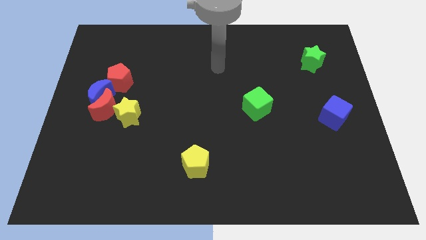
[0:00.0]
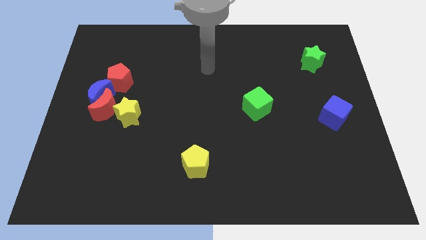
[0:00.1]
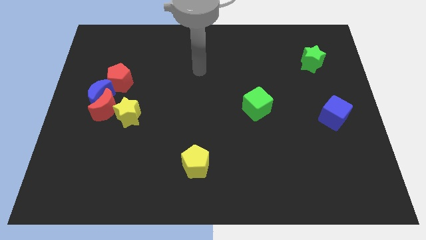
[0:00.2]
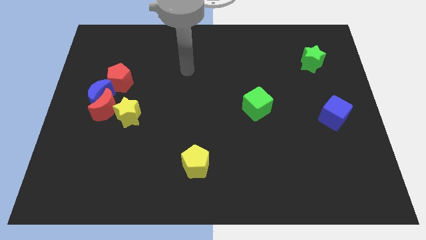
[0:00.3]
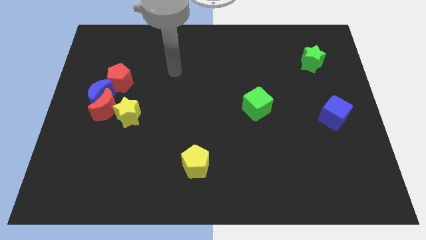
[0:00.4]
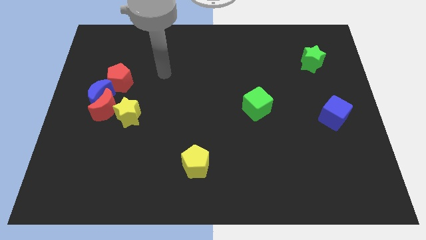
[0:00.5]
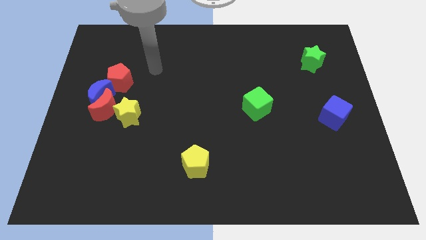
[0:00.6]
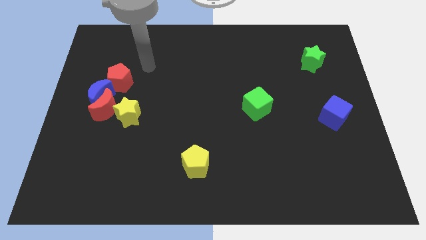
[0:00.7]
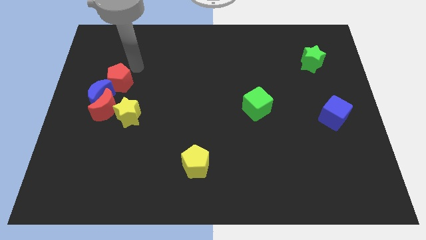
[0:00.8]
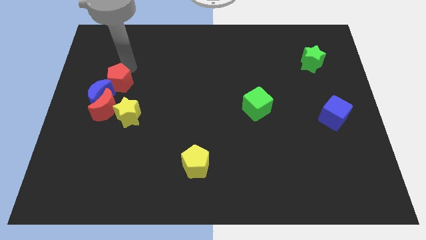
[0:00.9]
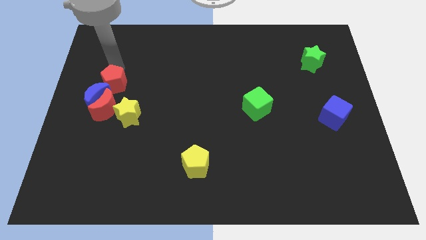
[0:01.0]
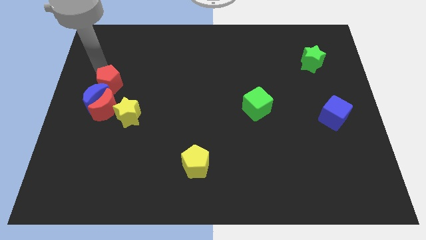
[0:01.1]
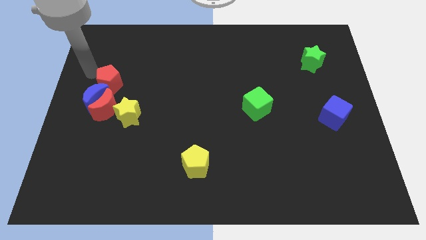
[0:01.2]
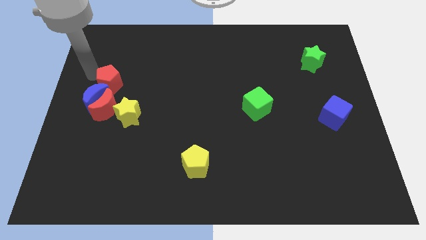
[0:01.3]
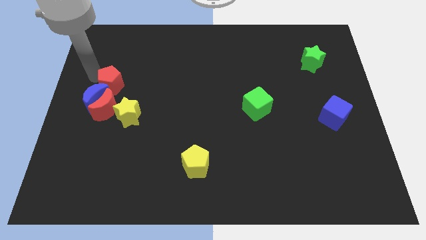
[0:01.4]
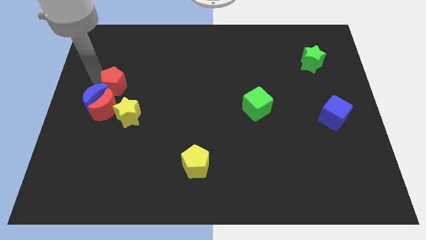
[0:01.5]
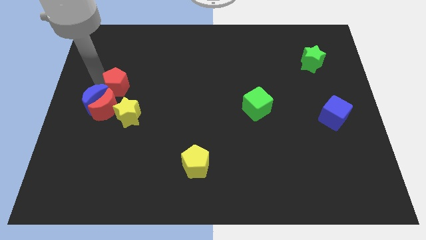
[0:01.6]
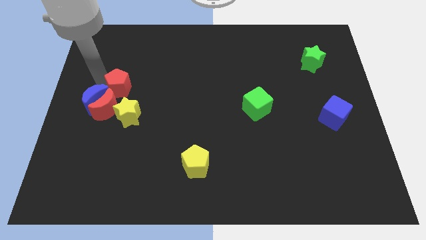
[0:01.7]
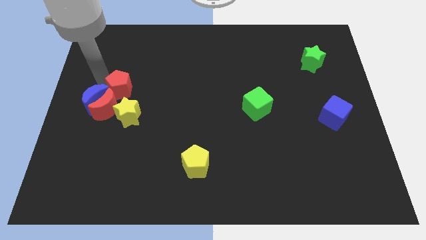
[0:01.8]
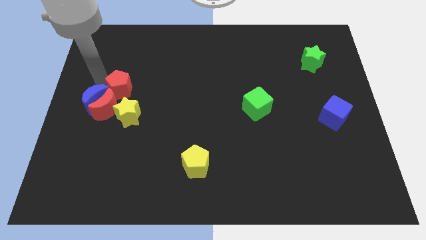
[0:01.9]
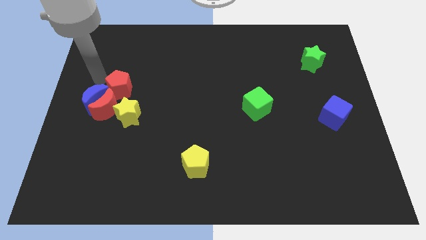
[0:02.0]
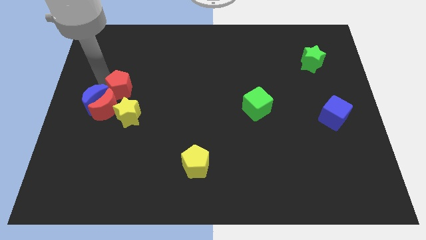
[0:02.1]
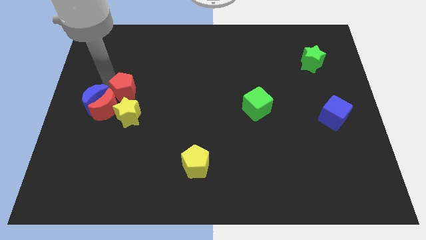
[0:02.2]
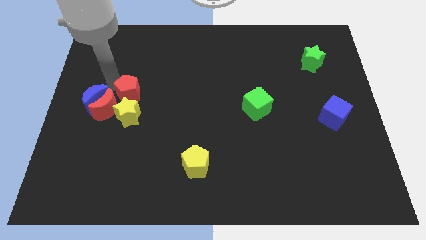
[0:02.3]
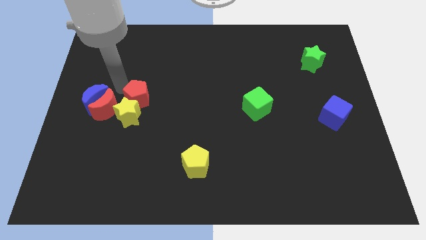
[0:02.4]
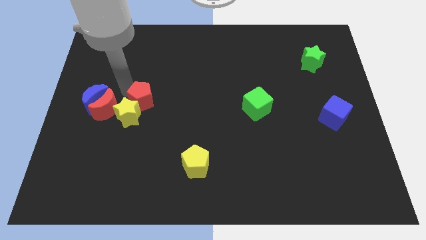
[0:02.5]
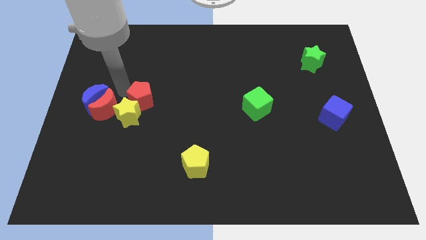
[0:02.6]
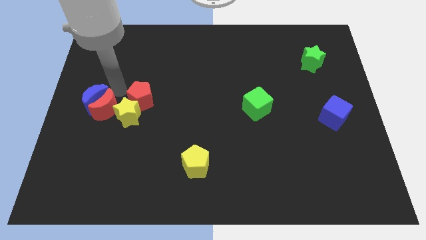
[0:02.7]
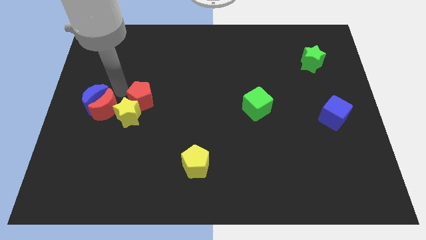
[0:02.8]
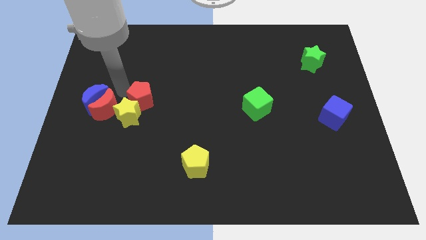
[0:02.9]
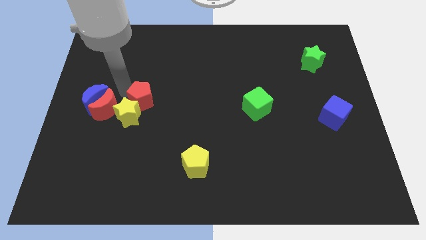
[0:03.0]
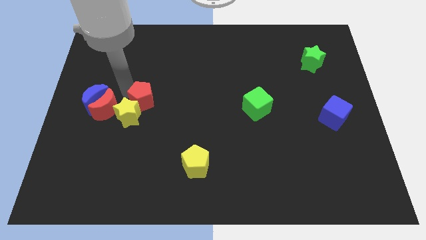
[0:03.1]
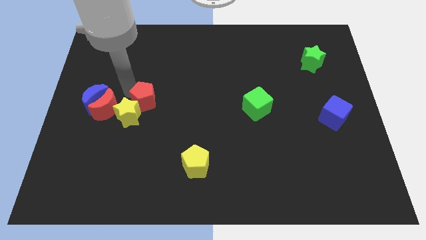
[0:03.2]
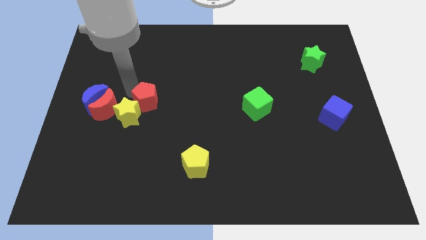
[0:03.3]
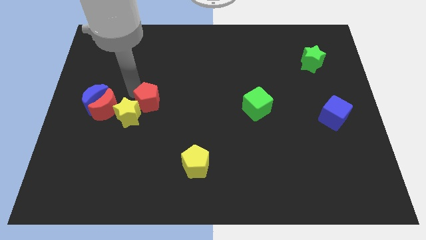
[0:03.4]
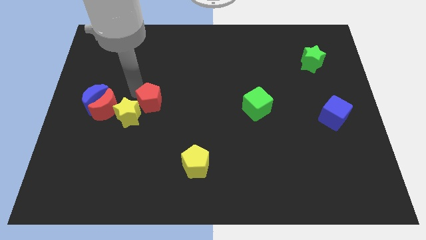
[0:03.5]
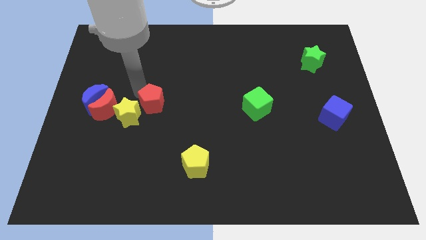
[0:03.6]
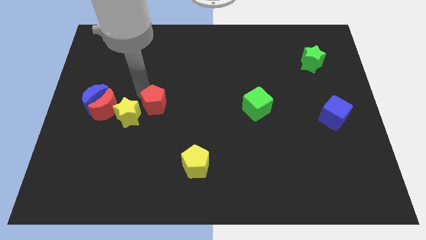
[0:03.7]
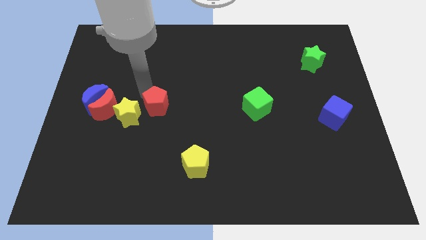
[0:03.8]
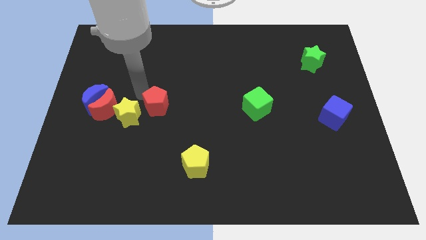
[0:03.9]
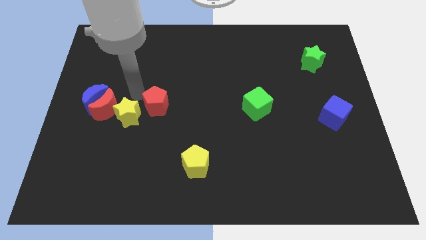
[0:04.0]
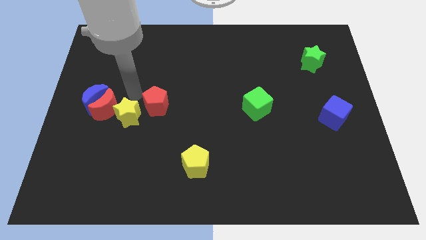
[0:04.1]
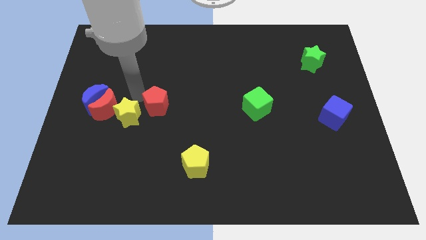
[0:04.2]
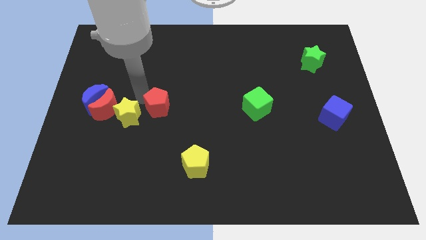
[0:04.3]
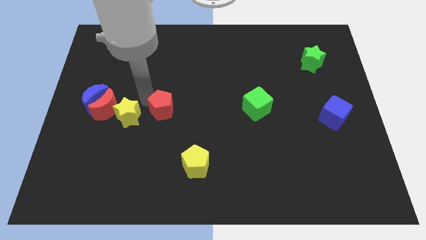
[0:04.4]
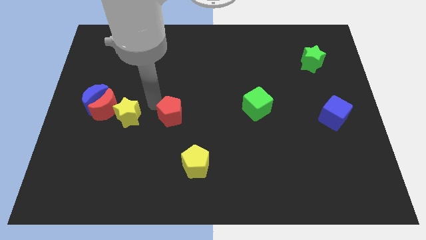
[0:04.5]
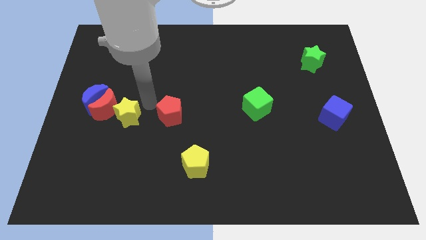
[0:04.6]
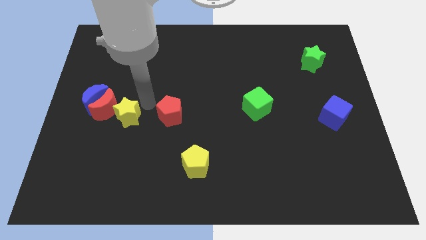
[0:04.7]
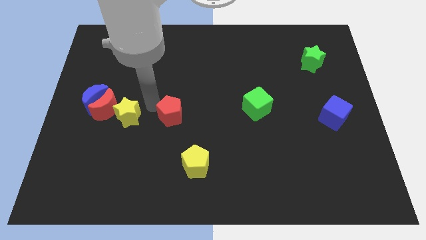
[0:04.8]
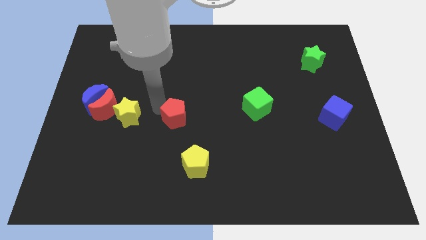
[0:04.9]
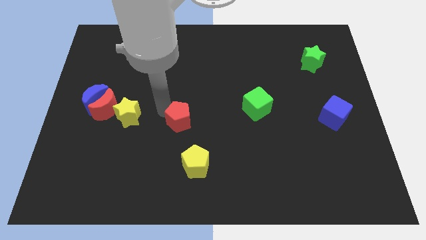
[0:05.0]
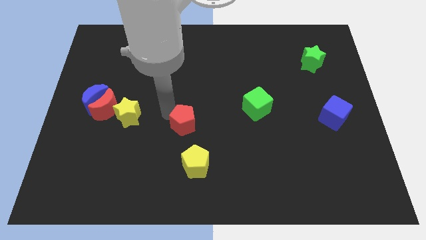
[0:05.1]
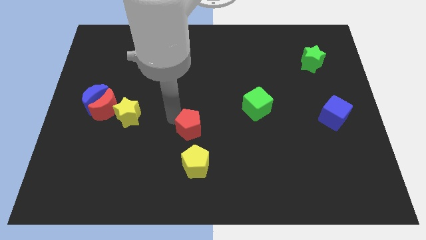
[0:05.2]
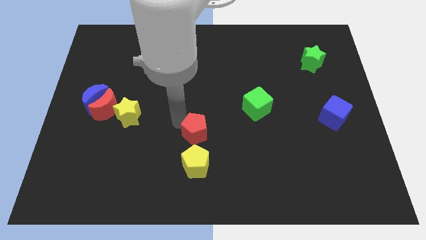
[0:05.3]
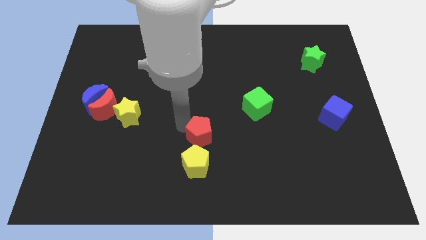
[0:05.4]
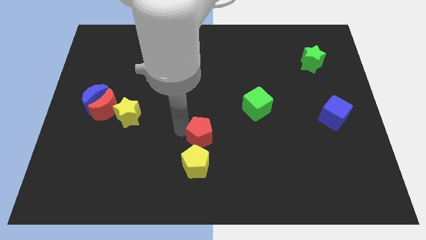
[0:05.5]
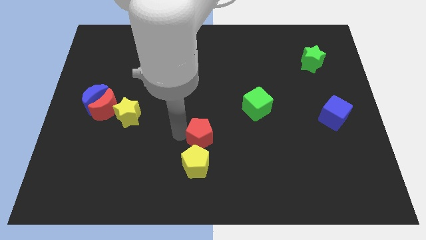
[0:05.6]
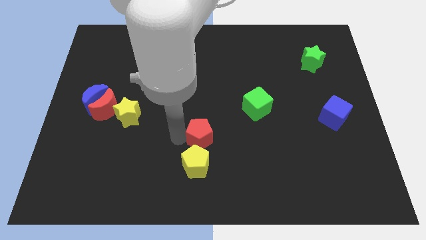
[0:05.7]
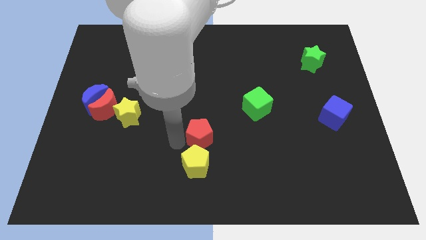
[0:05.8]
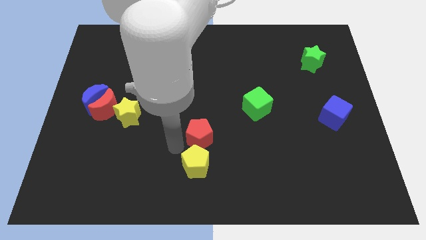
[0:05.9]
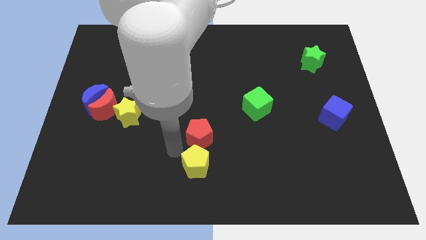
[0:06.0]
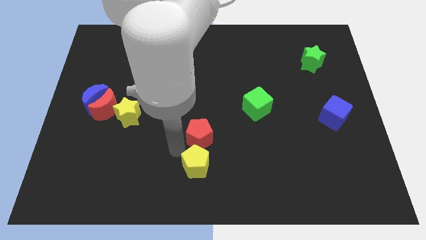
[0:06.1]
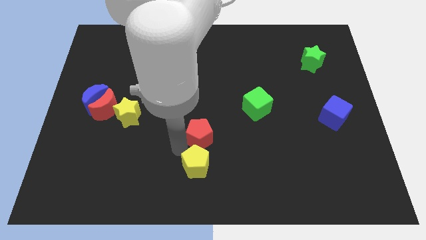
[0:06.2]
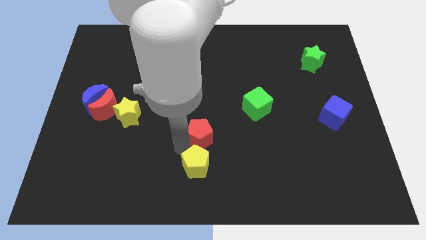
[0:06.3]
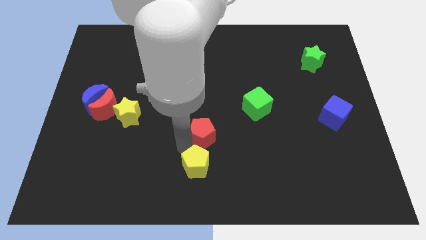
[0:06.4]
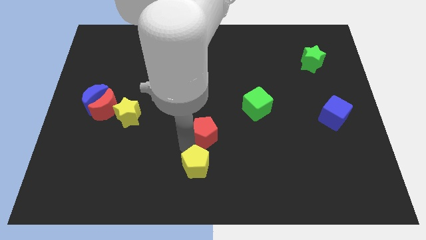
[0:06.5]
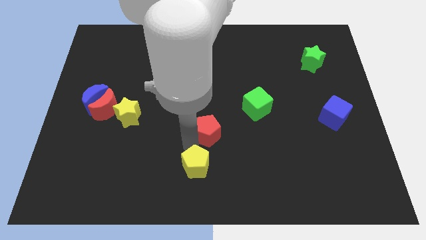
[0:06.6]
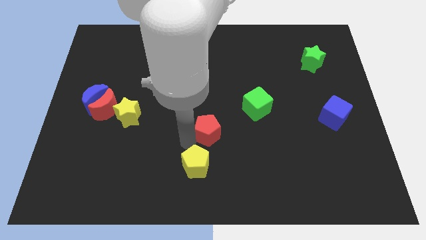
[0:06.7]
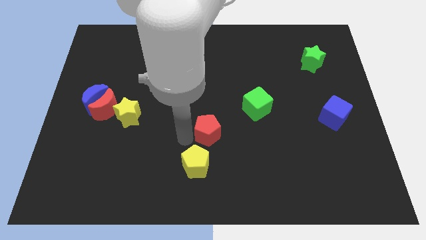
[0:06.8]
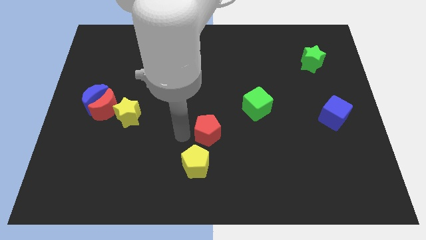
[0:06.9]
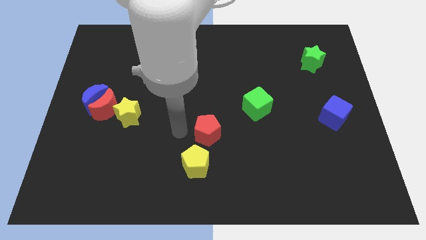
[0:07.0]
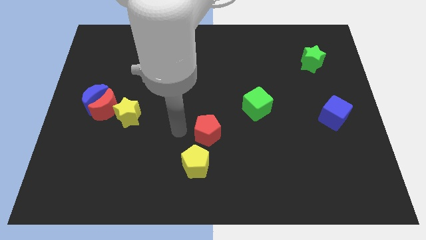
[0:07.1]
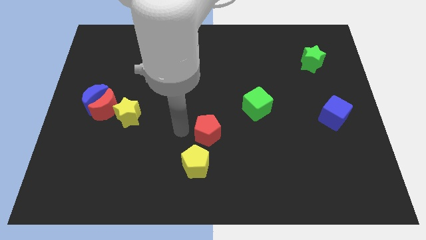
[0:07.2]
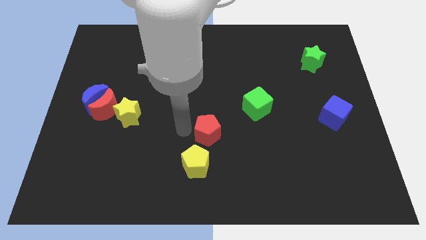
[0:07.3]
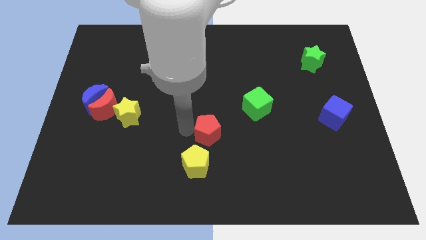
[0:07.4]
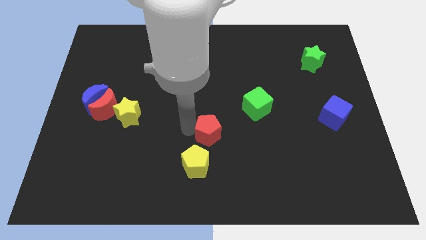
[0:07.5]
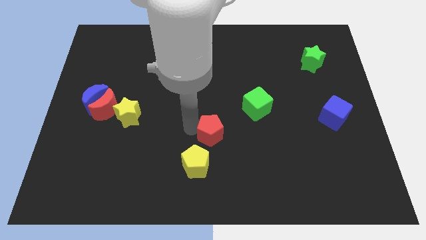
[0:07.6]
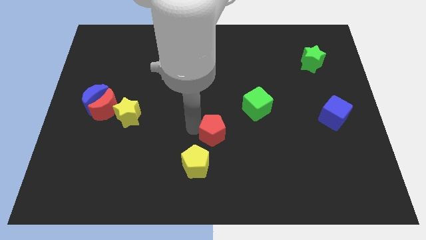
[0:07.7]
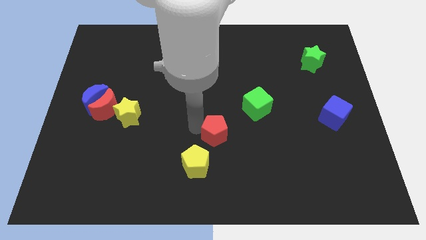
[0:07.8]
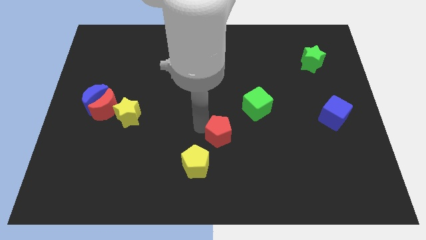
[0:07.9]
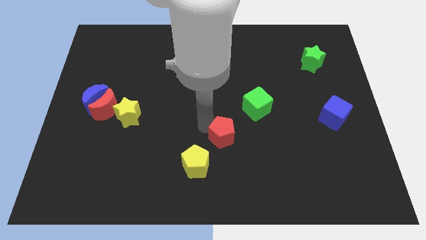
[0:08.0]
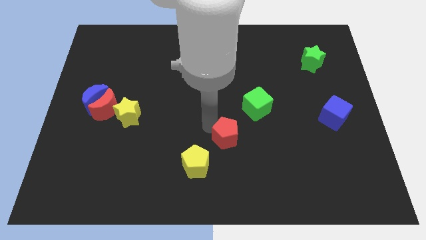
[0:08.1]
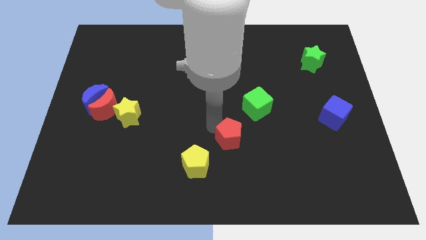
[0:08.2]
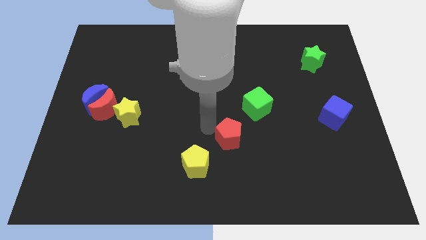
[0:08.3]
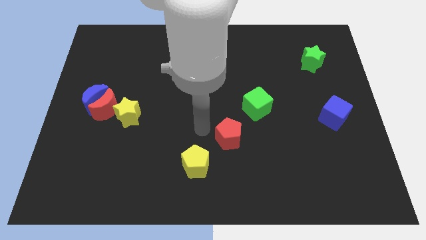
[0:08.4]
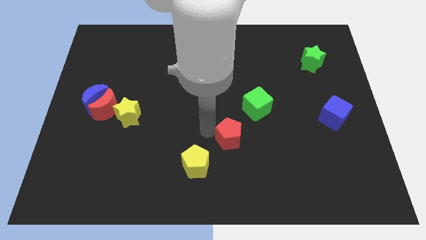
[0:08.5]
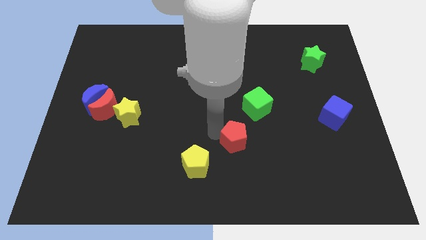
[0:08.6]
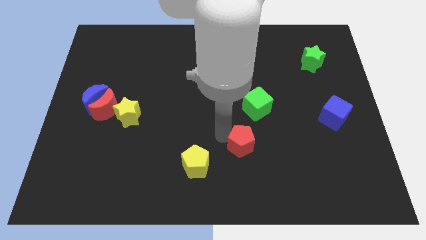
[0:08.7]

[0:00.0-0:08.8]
push the red pentagon to the bottom side of the green cube
